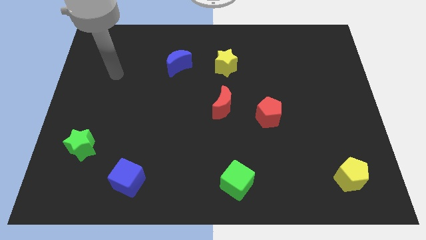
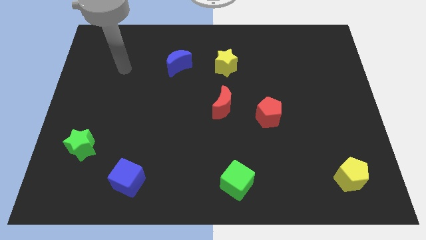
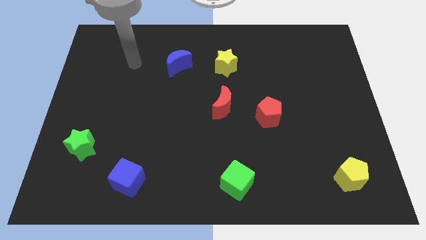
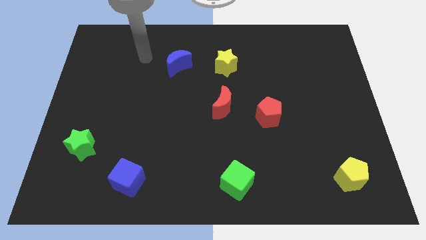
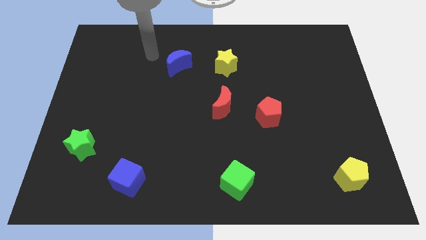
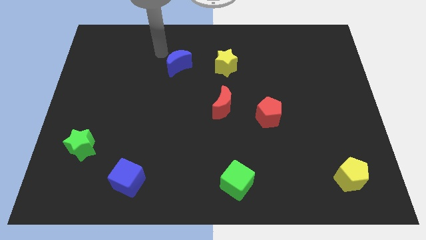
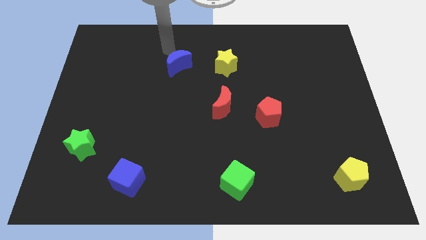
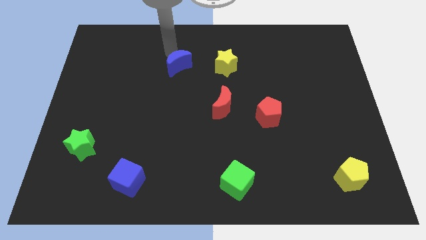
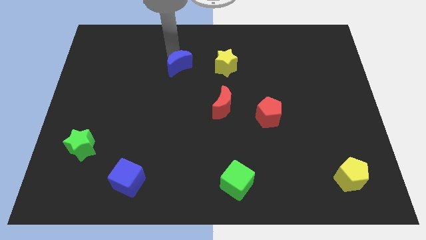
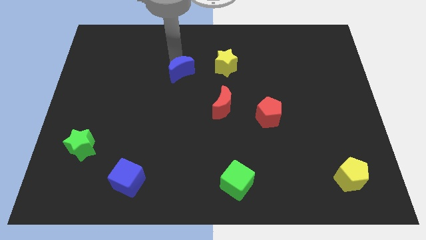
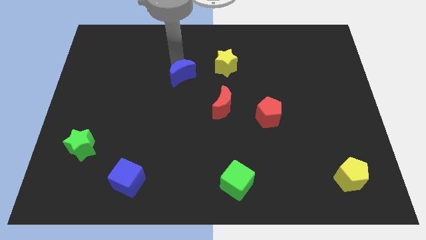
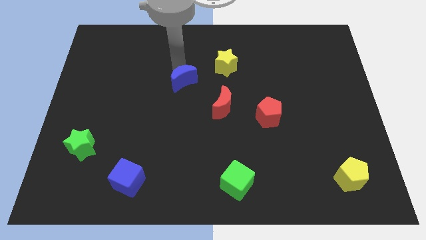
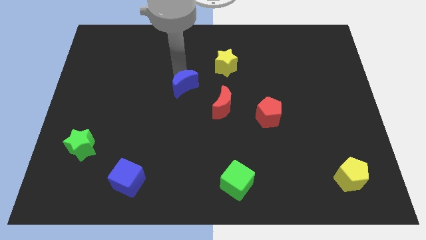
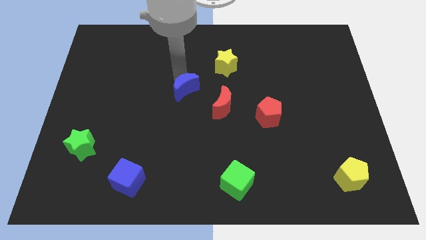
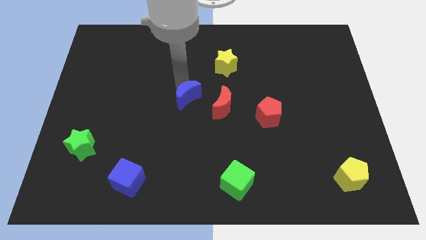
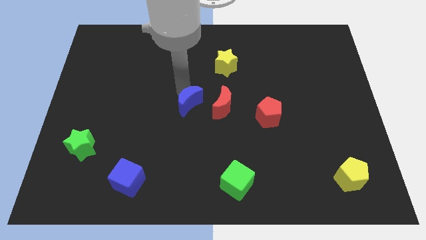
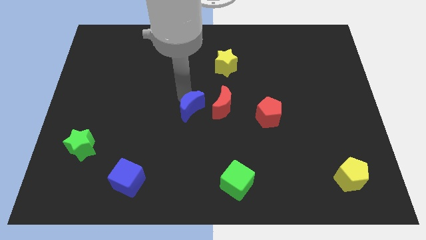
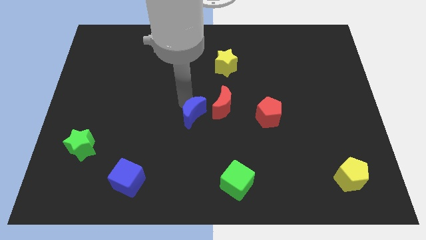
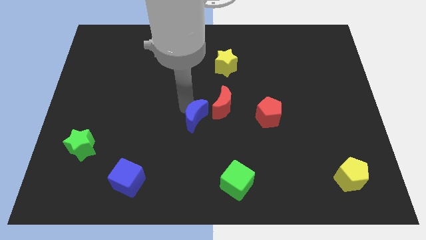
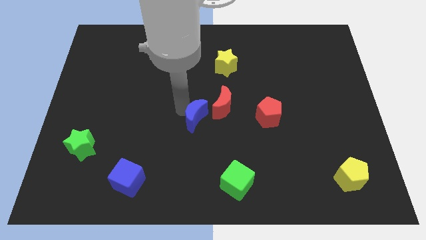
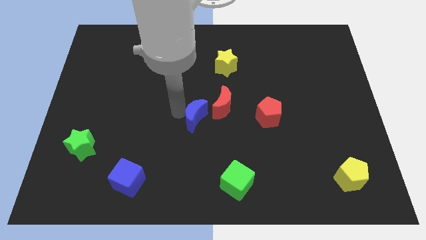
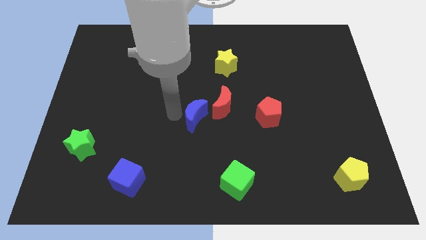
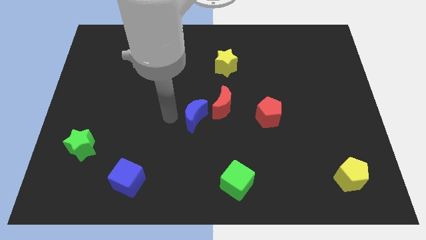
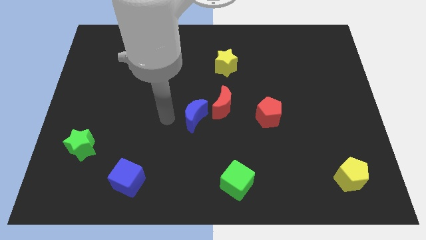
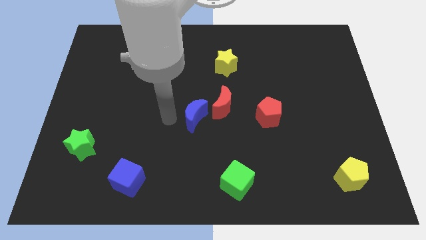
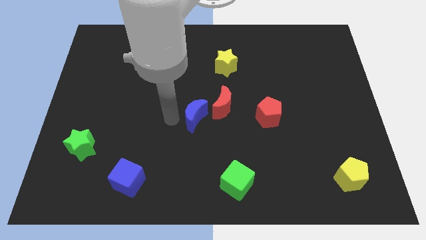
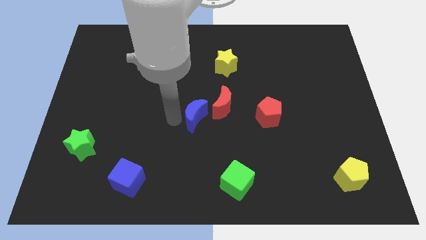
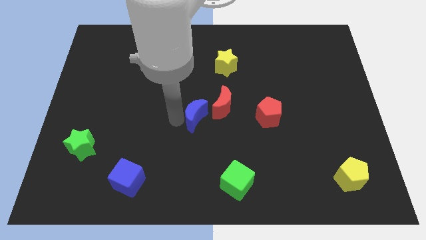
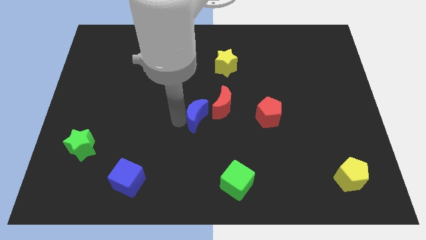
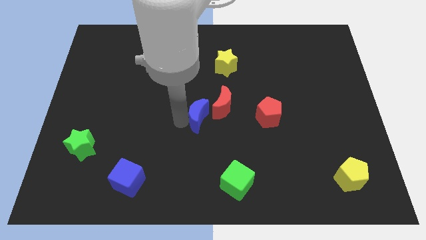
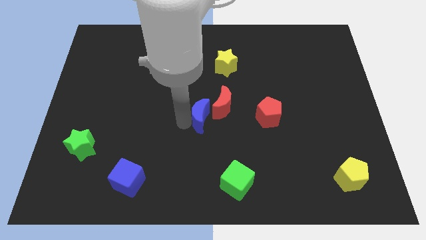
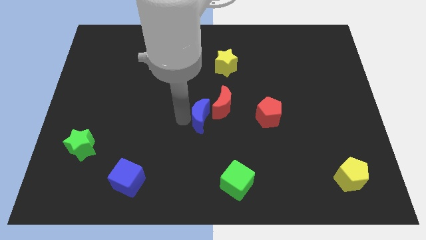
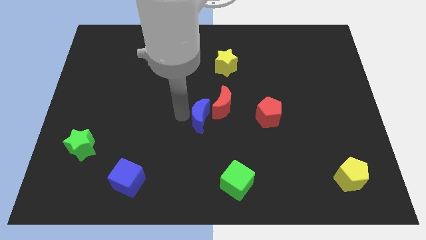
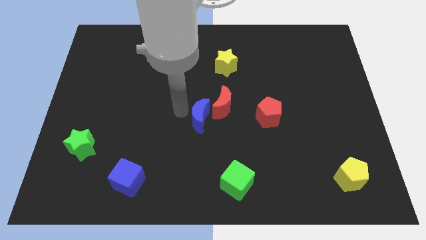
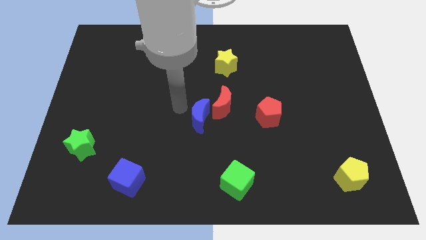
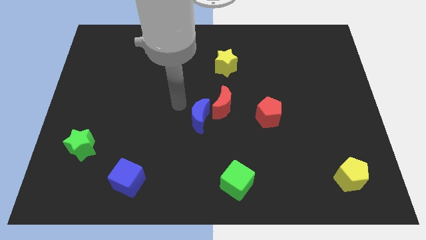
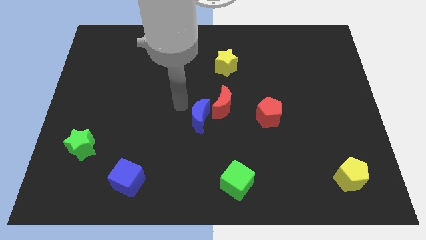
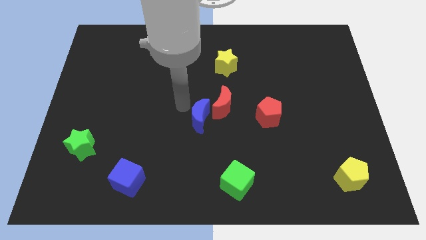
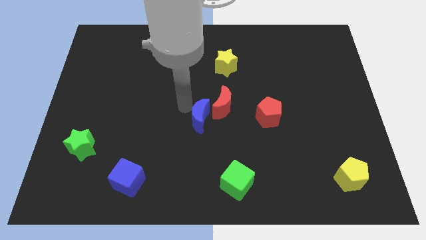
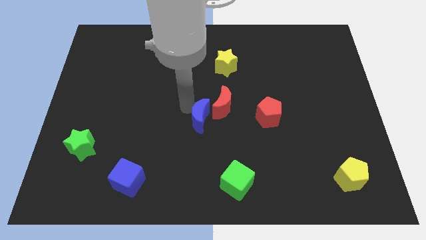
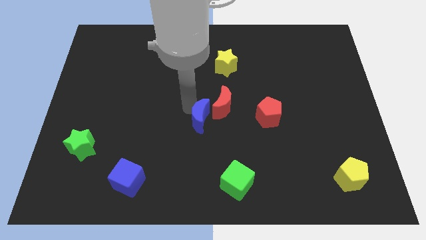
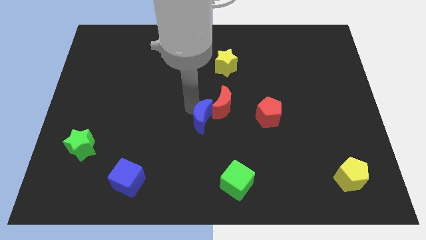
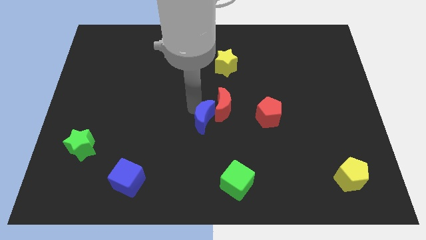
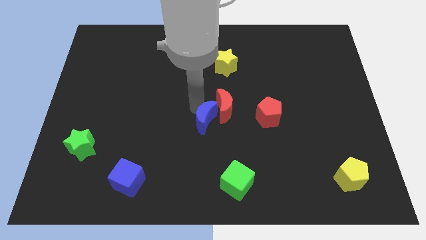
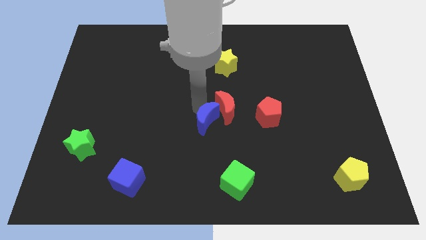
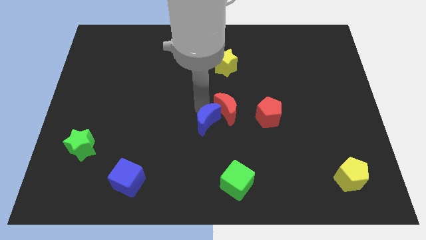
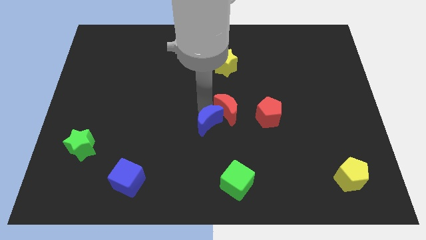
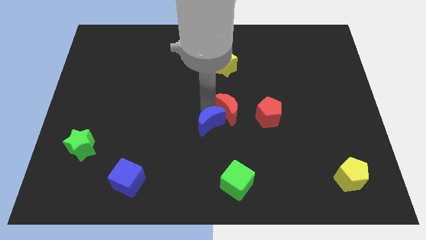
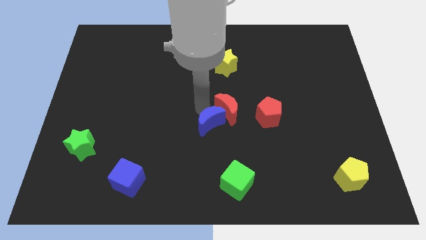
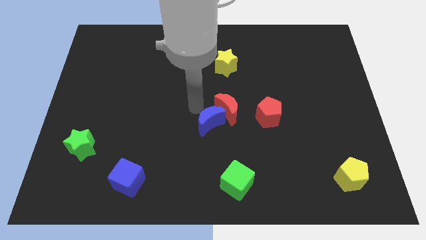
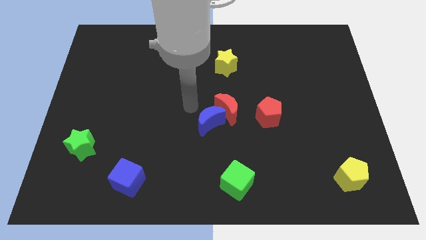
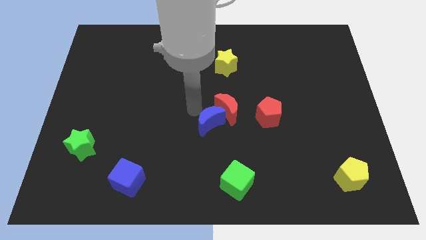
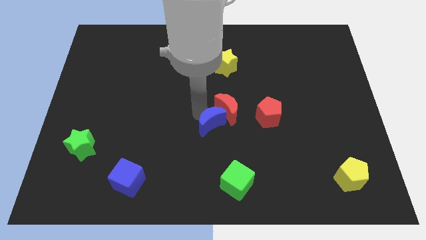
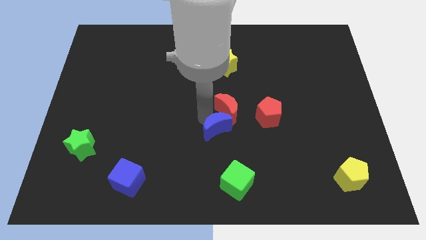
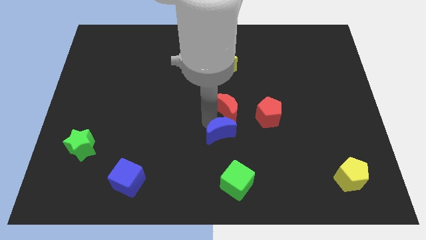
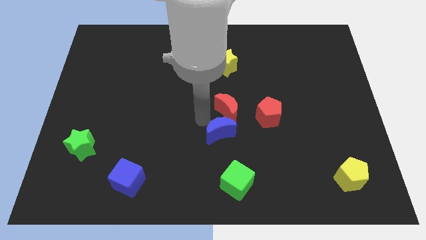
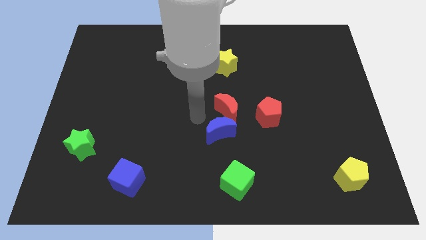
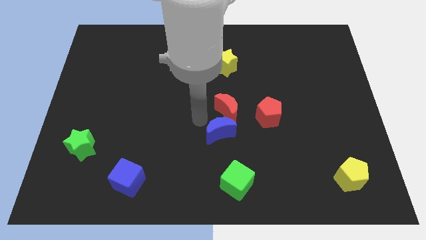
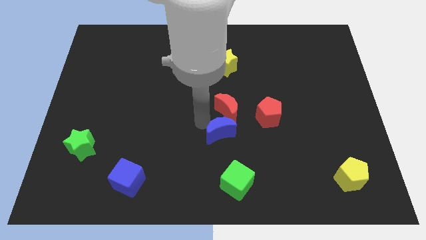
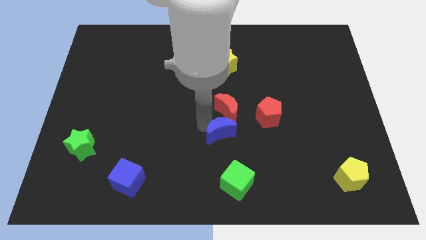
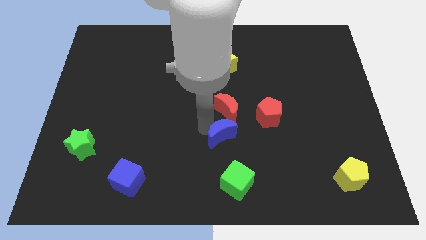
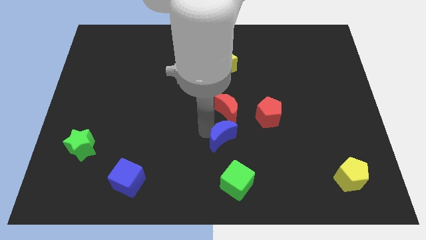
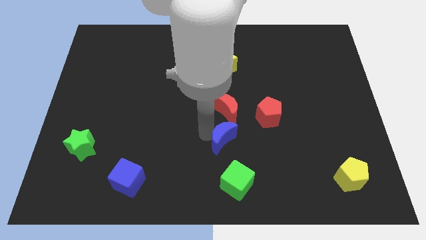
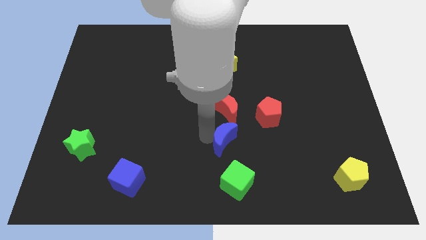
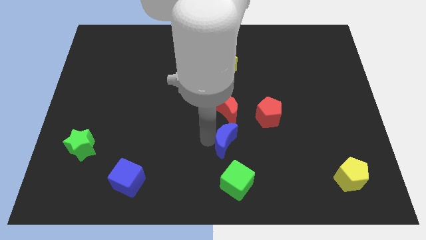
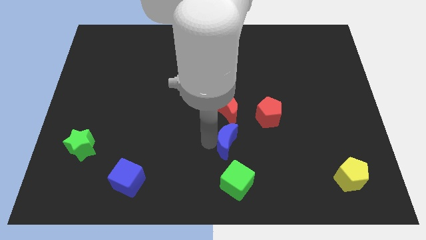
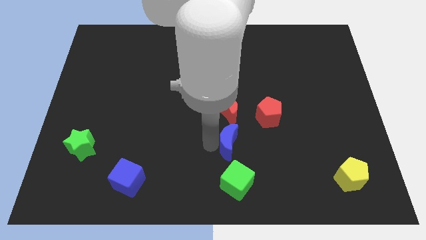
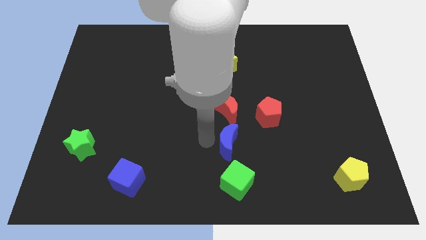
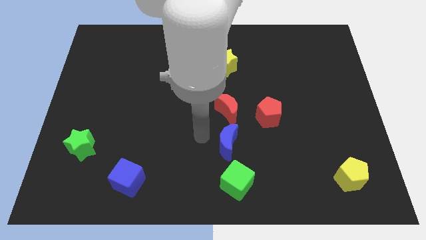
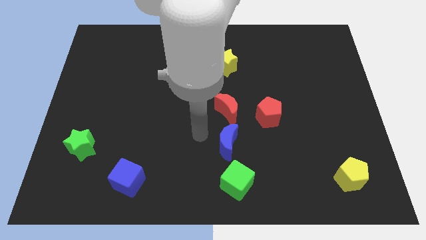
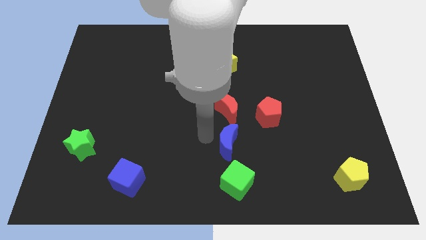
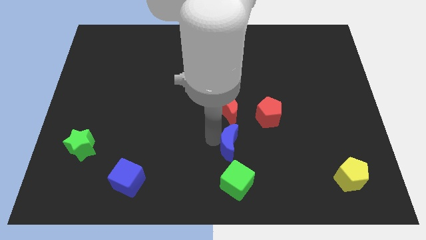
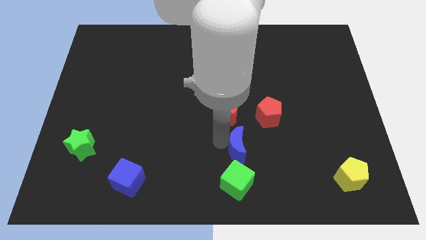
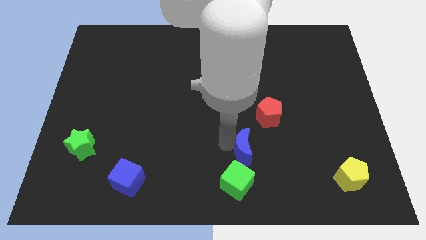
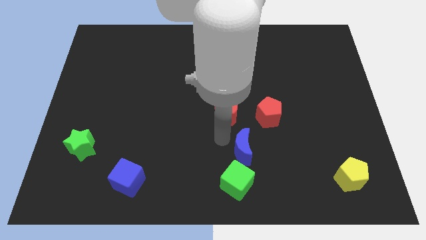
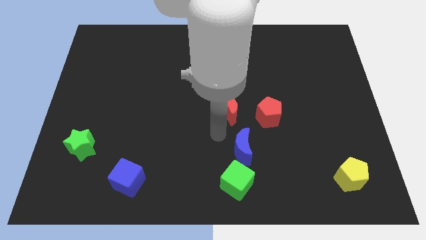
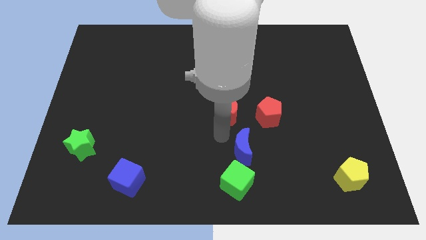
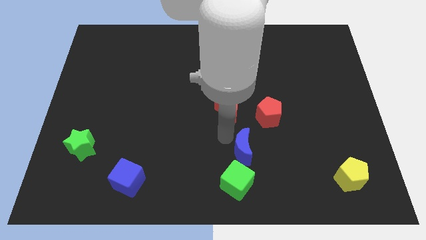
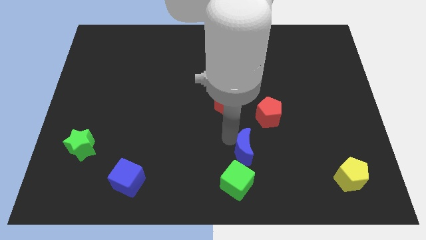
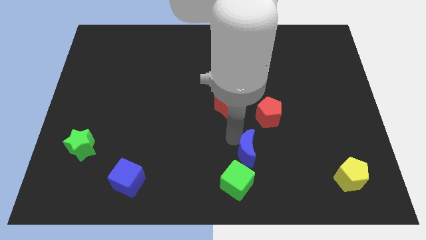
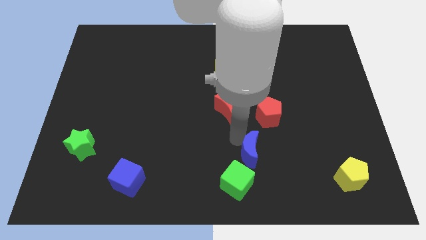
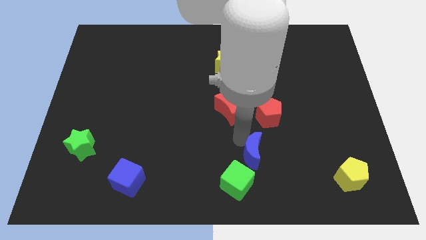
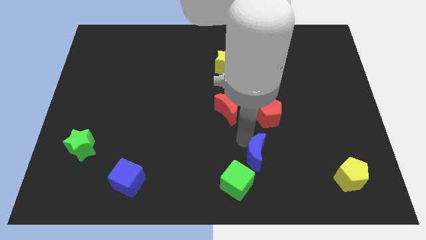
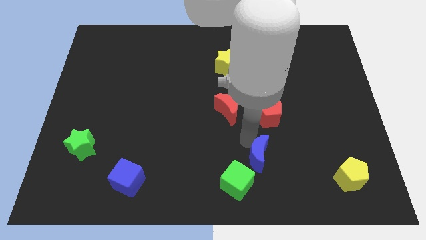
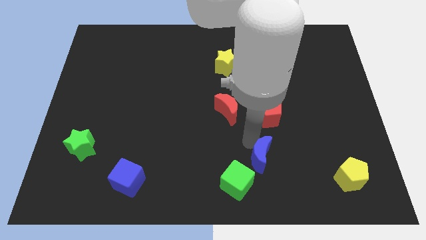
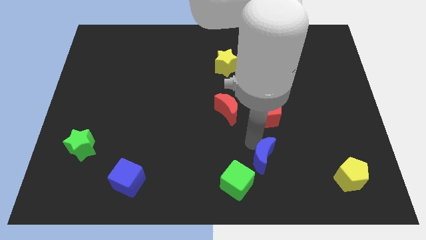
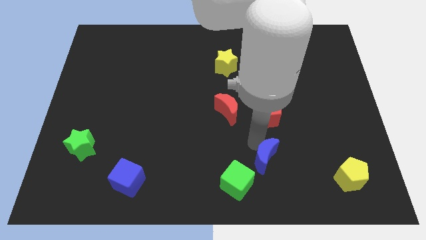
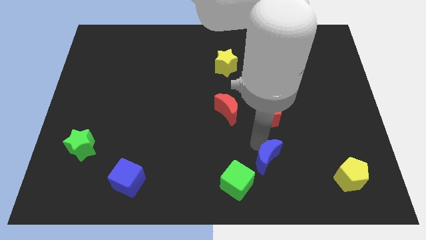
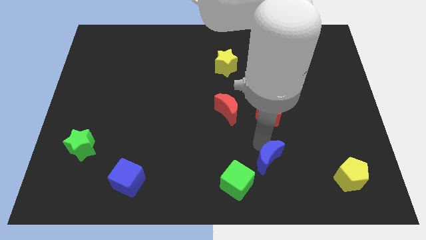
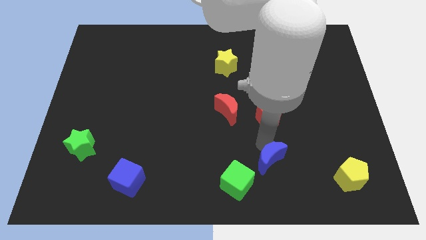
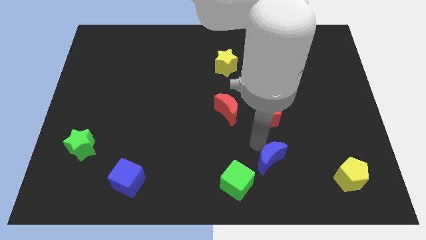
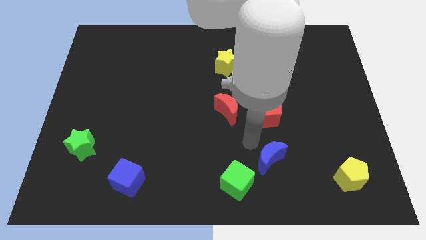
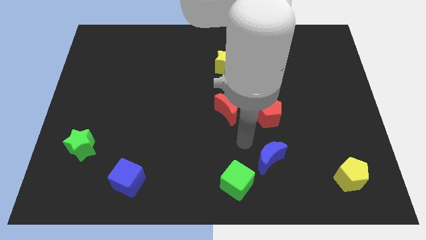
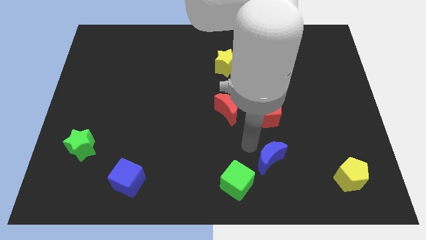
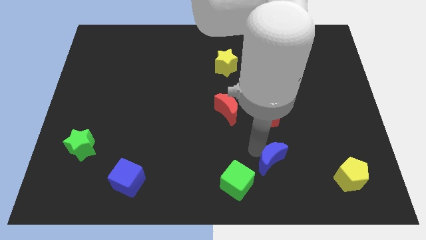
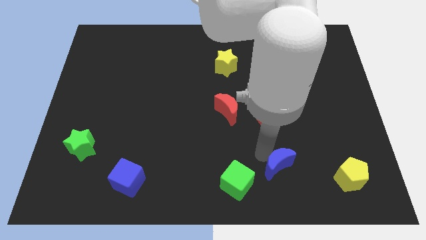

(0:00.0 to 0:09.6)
move the blue moon left of the yellow pentagon
